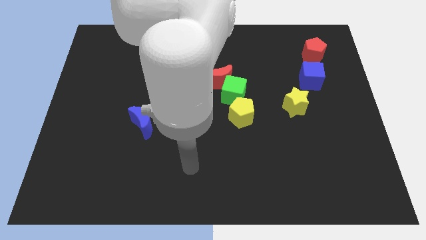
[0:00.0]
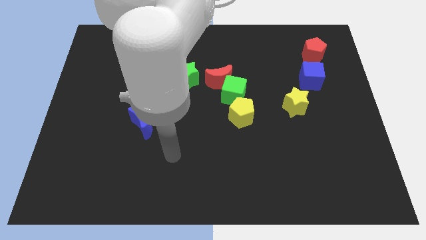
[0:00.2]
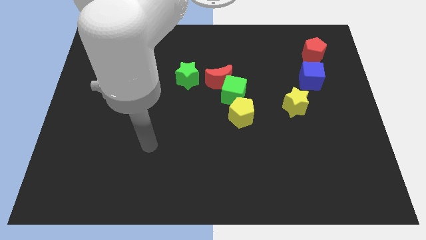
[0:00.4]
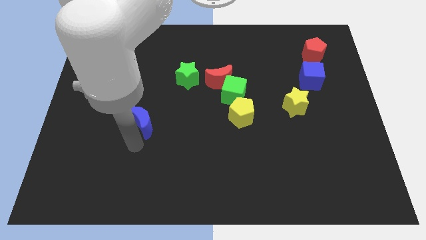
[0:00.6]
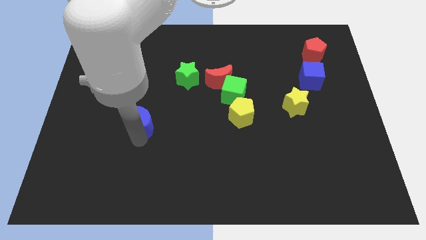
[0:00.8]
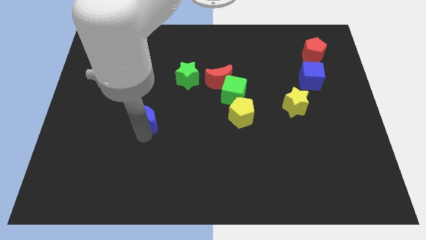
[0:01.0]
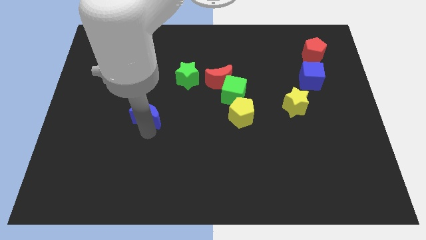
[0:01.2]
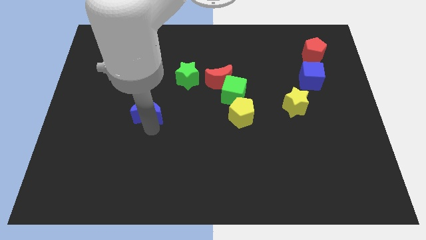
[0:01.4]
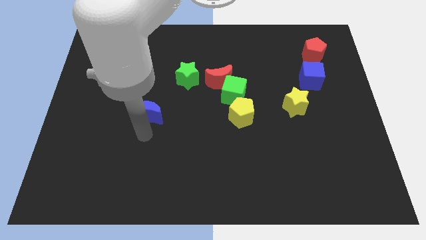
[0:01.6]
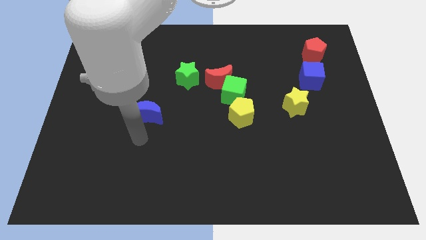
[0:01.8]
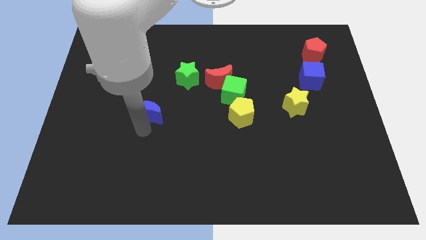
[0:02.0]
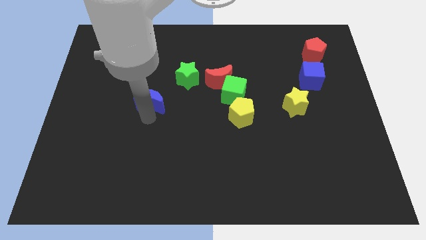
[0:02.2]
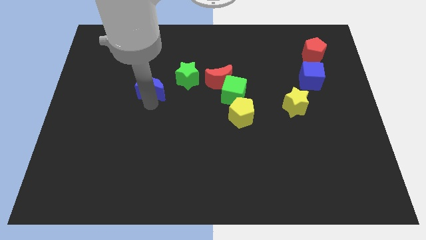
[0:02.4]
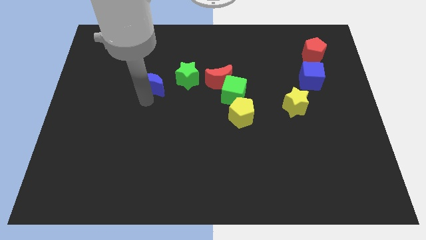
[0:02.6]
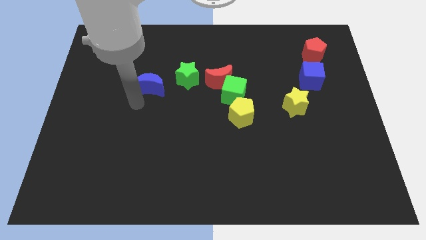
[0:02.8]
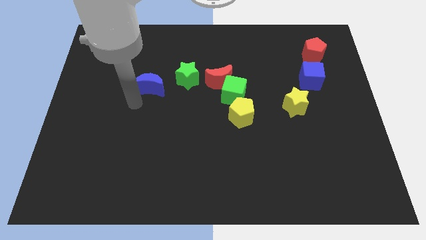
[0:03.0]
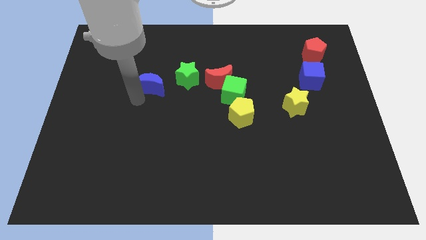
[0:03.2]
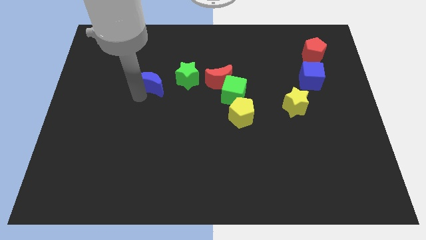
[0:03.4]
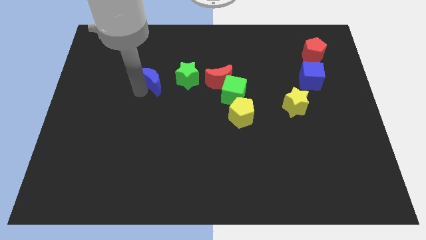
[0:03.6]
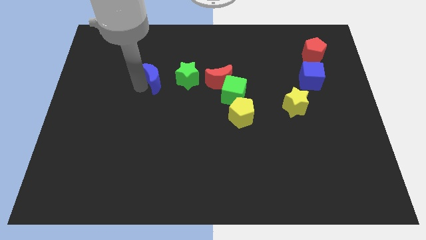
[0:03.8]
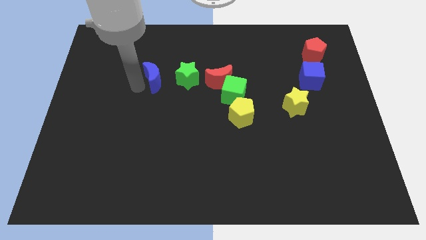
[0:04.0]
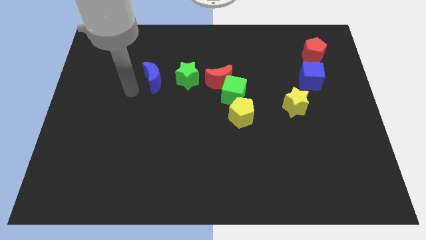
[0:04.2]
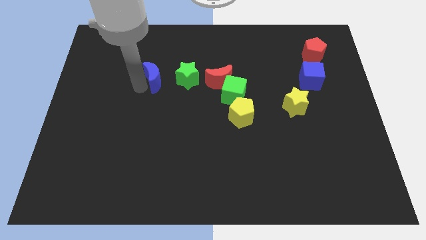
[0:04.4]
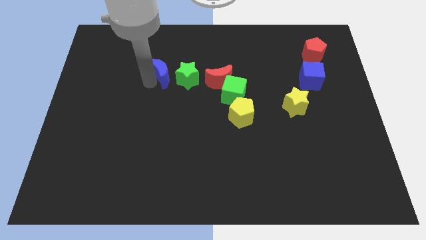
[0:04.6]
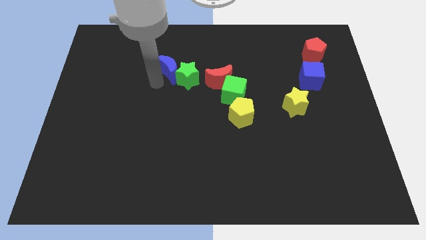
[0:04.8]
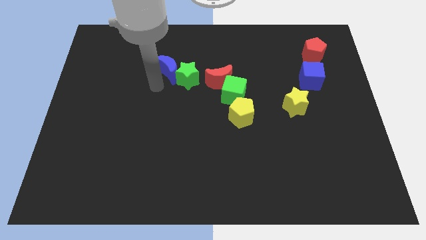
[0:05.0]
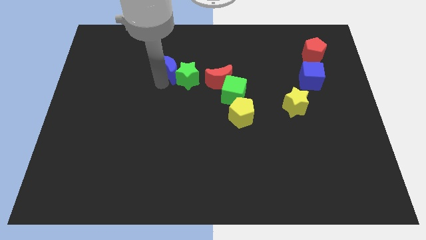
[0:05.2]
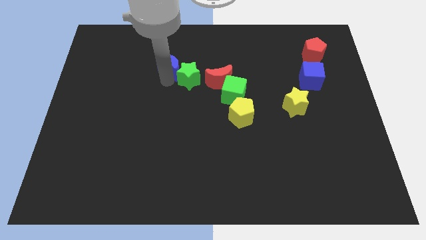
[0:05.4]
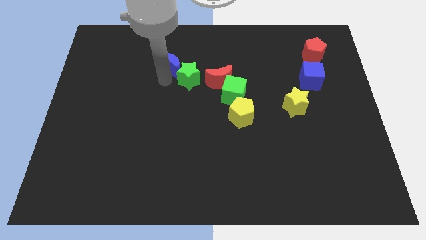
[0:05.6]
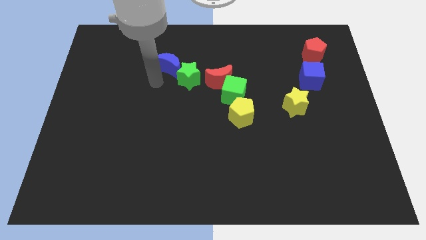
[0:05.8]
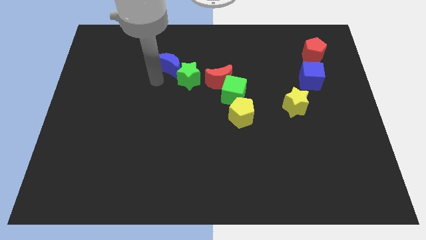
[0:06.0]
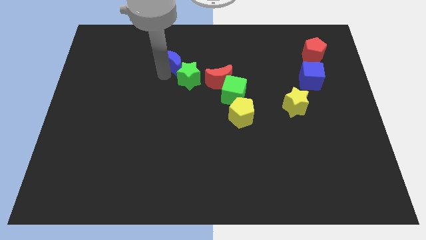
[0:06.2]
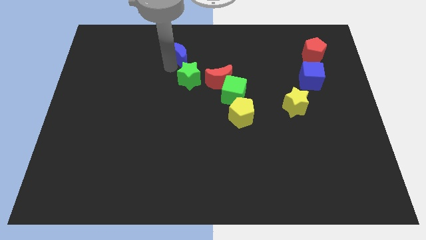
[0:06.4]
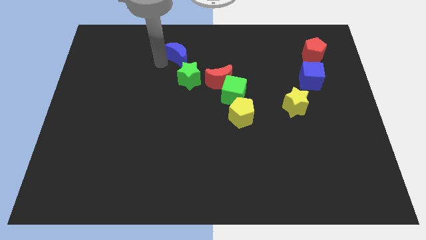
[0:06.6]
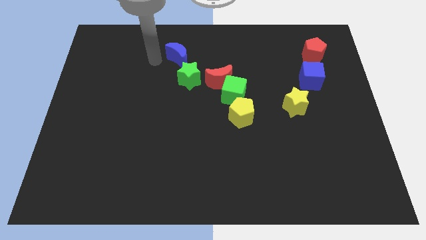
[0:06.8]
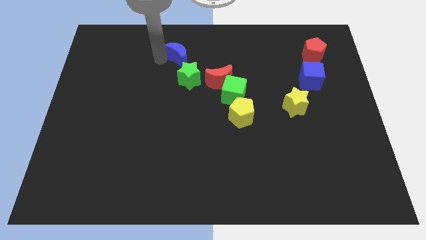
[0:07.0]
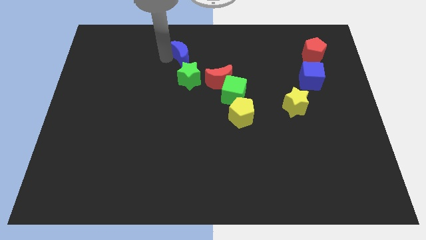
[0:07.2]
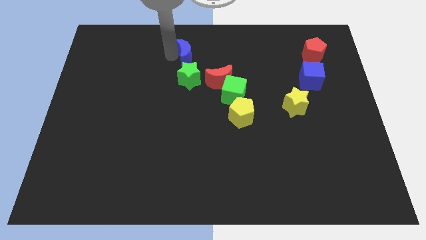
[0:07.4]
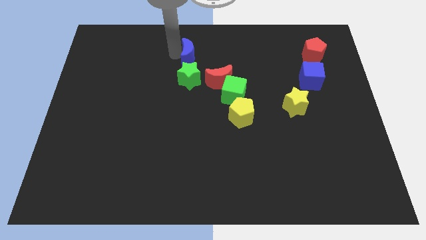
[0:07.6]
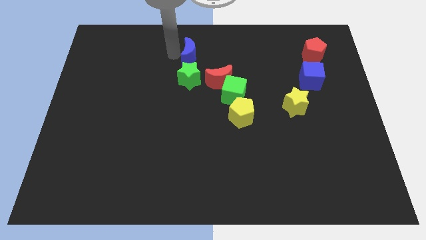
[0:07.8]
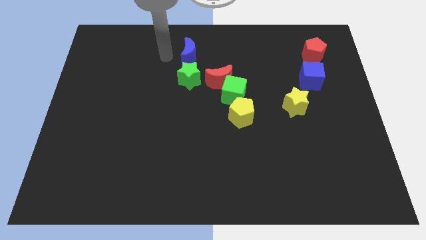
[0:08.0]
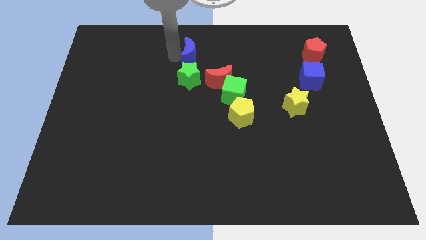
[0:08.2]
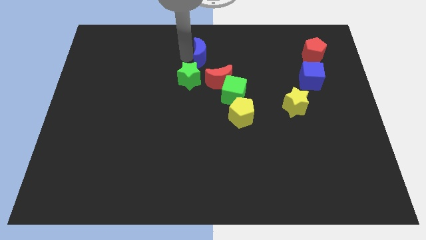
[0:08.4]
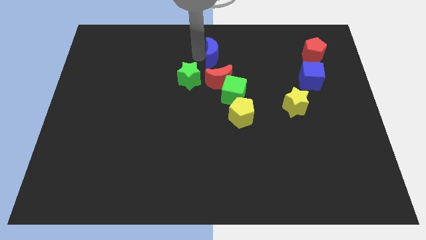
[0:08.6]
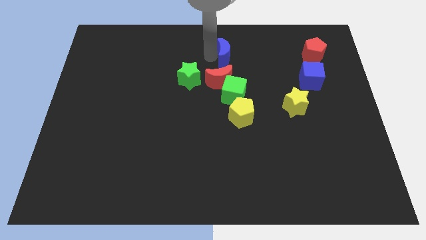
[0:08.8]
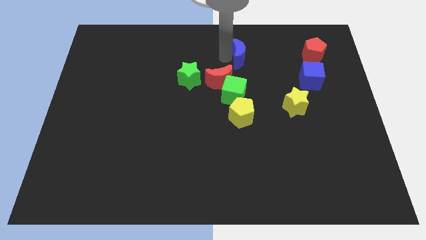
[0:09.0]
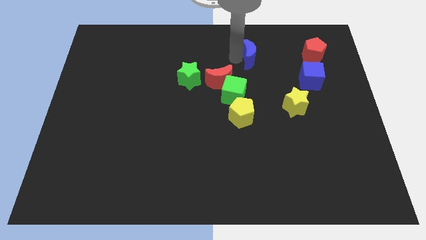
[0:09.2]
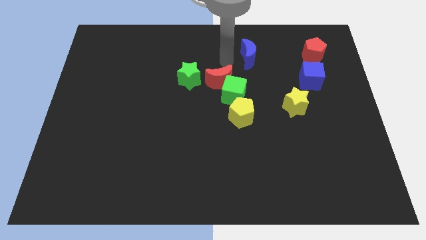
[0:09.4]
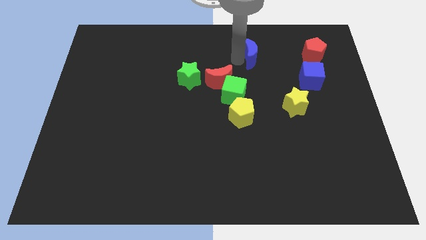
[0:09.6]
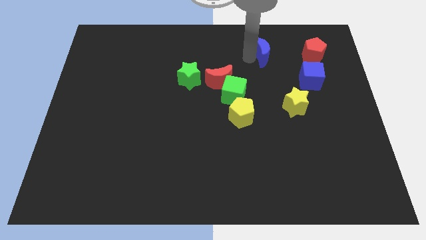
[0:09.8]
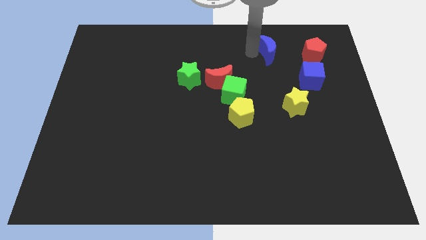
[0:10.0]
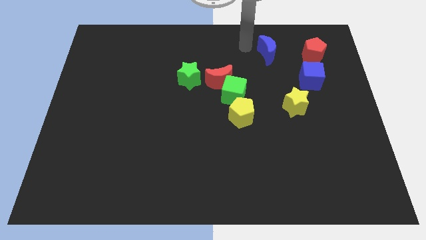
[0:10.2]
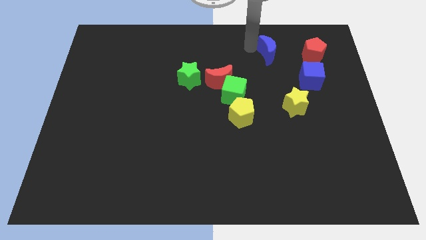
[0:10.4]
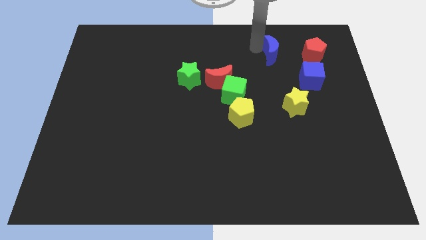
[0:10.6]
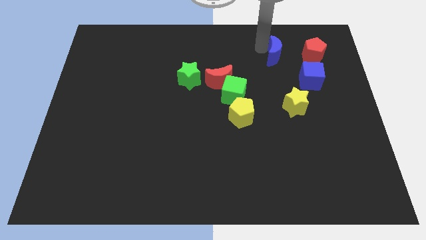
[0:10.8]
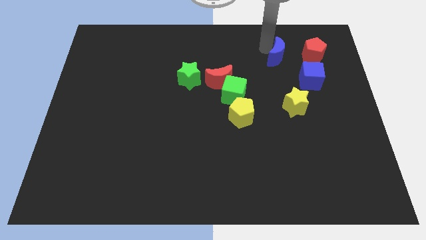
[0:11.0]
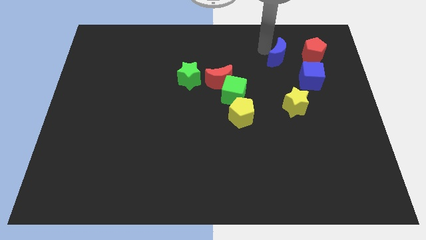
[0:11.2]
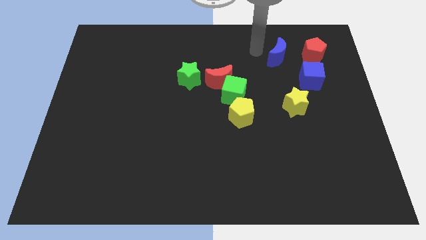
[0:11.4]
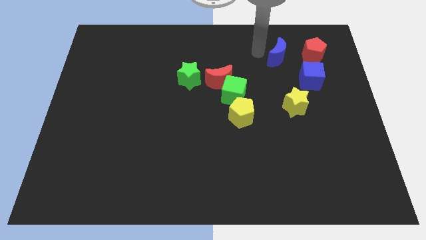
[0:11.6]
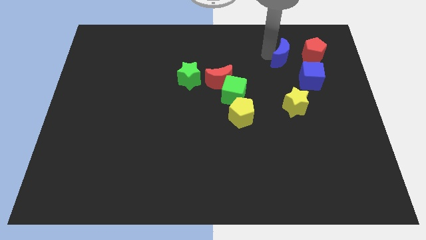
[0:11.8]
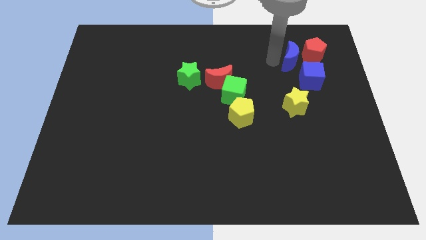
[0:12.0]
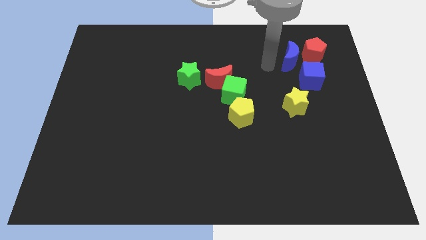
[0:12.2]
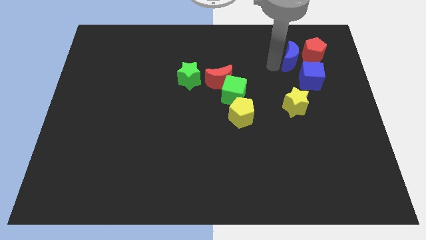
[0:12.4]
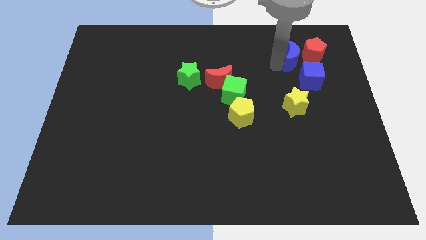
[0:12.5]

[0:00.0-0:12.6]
put the blue moon close to the red pentagon

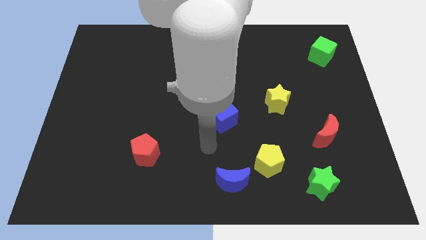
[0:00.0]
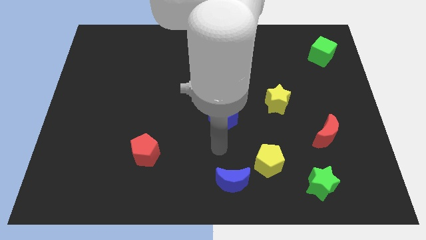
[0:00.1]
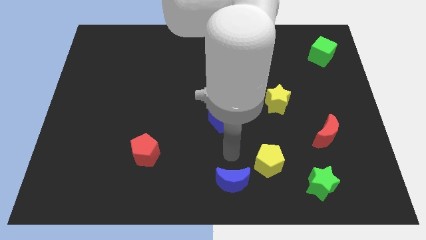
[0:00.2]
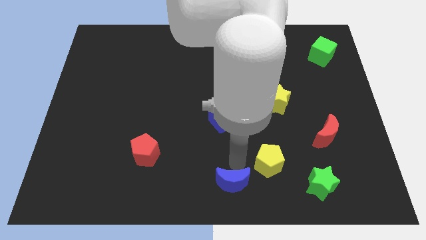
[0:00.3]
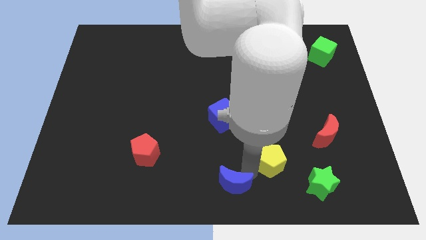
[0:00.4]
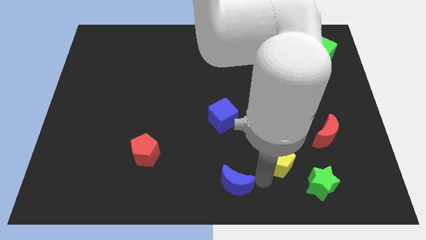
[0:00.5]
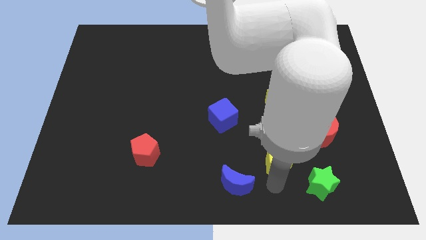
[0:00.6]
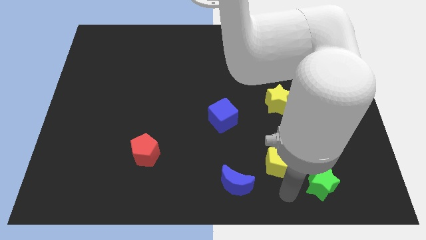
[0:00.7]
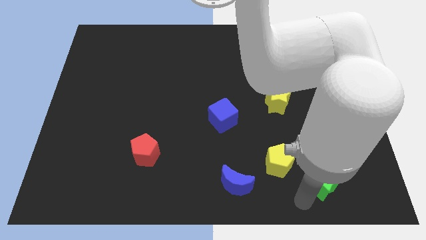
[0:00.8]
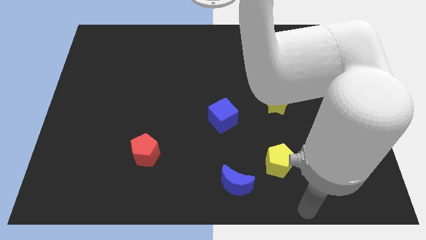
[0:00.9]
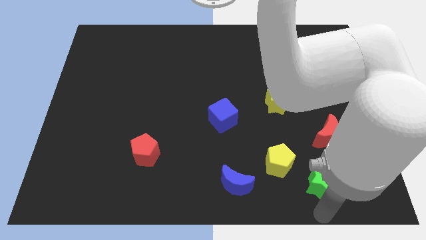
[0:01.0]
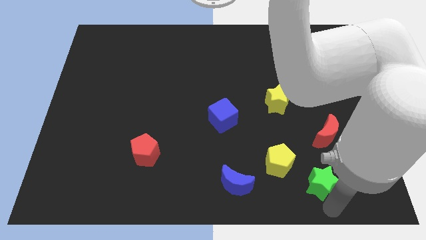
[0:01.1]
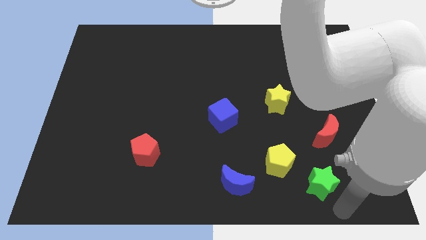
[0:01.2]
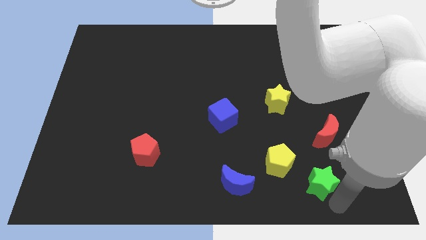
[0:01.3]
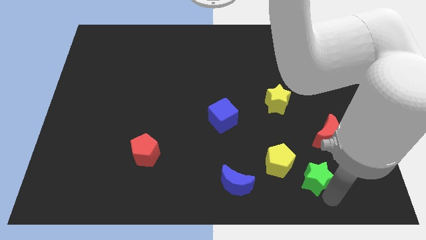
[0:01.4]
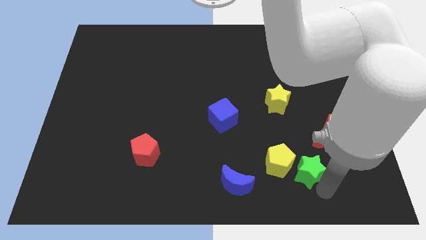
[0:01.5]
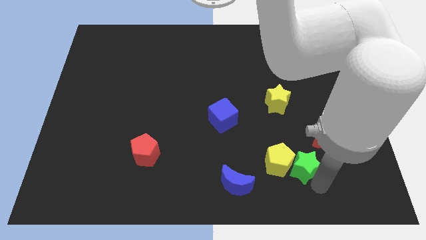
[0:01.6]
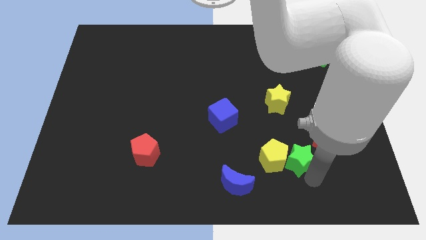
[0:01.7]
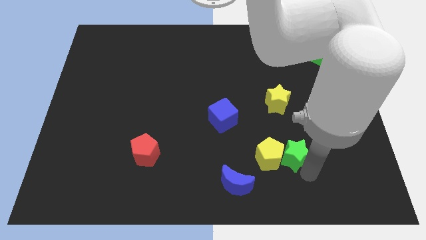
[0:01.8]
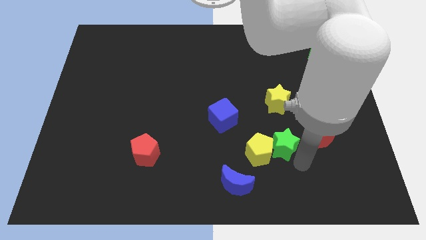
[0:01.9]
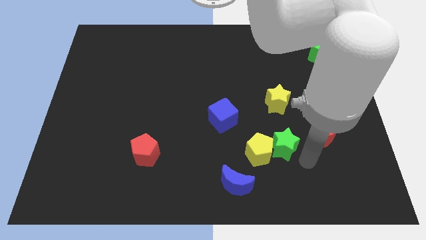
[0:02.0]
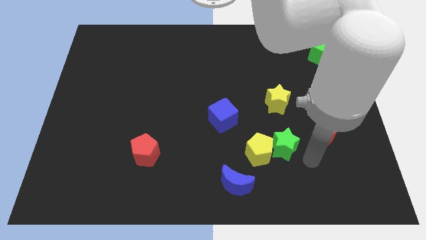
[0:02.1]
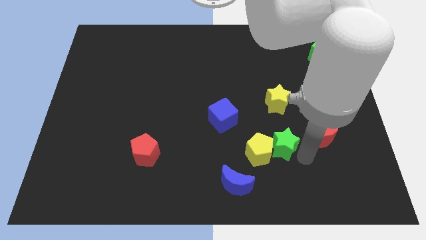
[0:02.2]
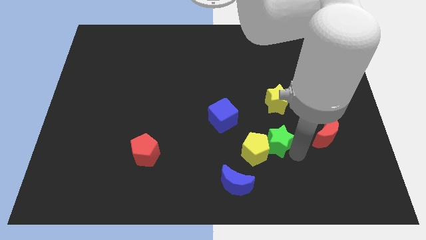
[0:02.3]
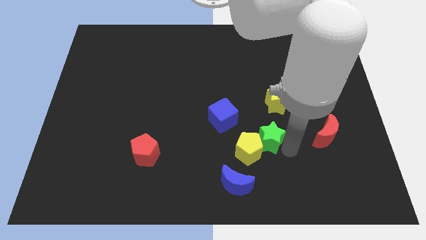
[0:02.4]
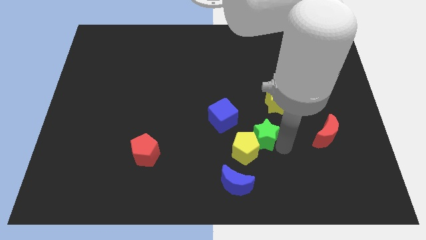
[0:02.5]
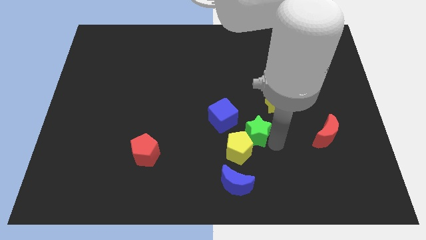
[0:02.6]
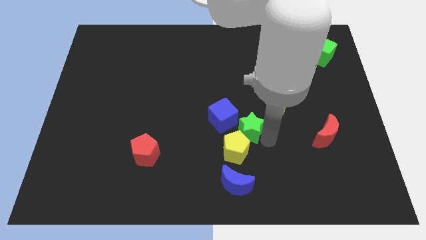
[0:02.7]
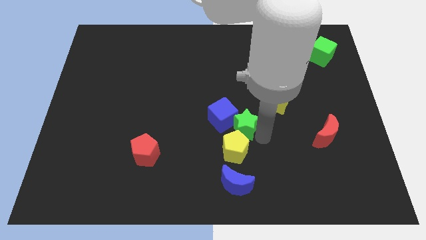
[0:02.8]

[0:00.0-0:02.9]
push the green star next to the blue cube
